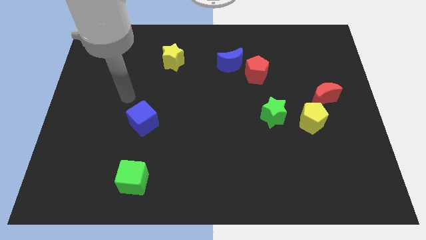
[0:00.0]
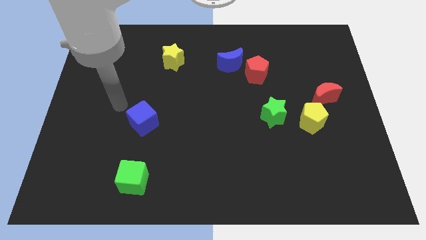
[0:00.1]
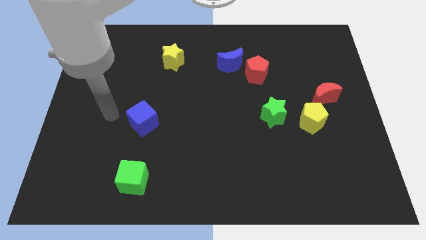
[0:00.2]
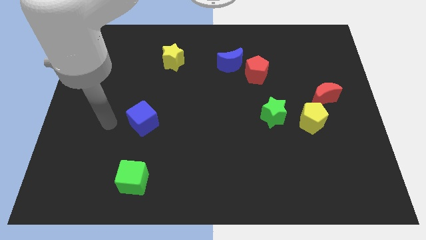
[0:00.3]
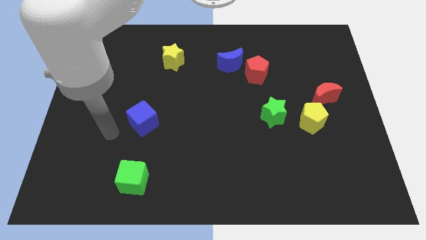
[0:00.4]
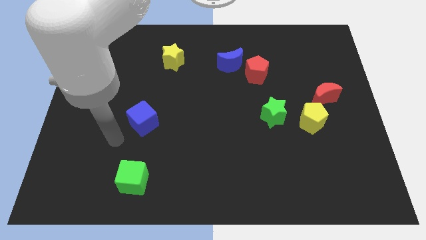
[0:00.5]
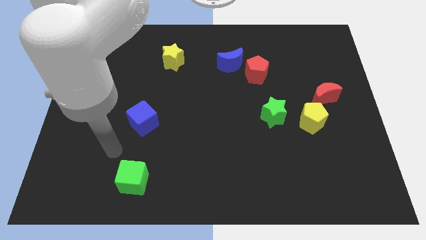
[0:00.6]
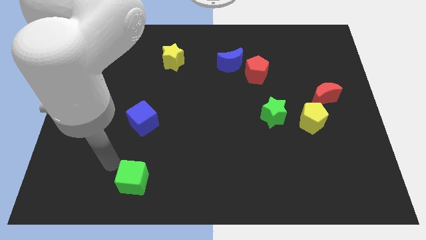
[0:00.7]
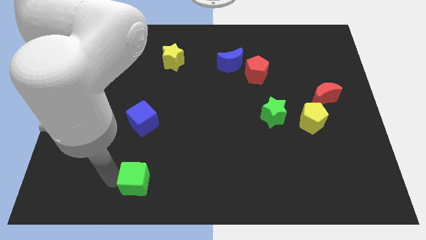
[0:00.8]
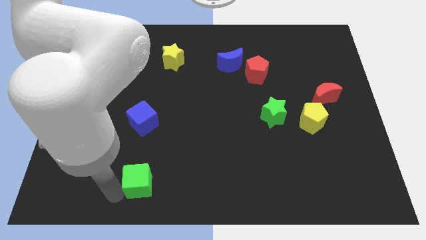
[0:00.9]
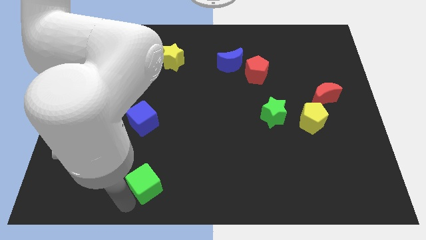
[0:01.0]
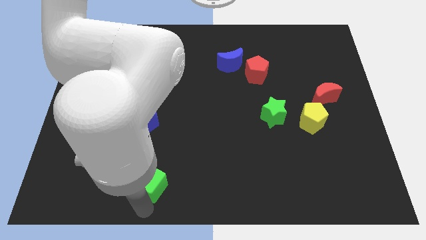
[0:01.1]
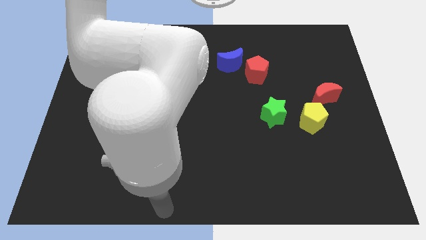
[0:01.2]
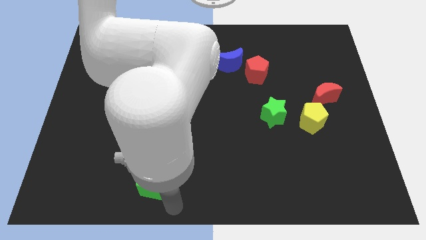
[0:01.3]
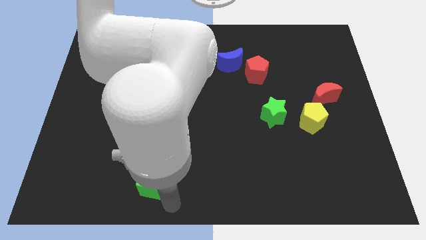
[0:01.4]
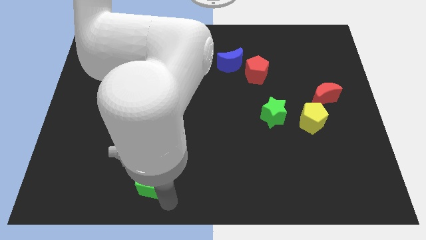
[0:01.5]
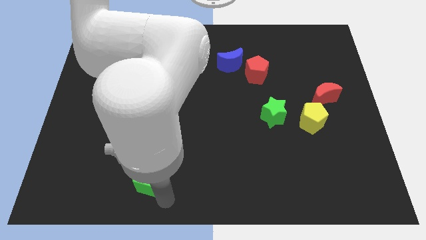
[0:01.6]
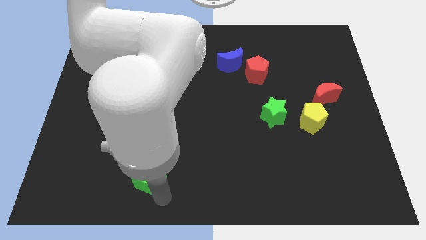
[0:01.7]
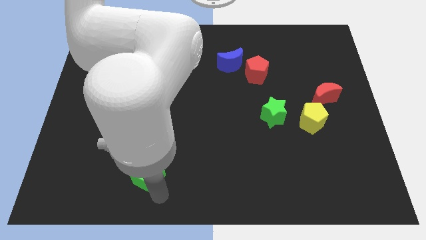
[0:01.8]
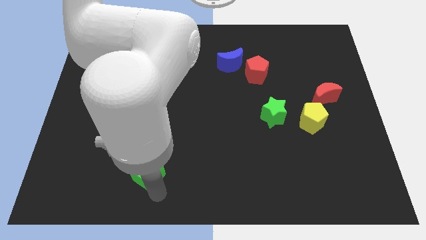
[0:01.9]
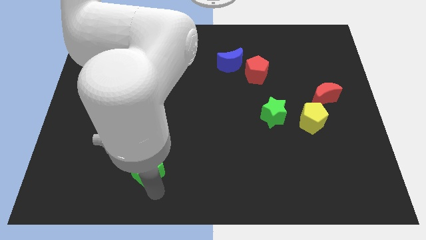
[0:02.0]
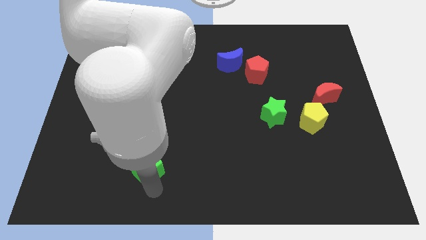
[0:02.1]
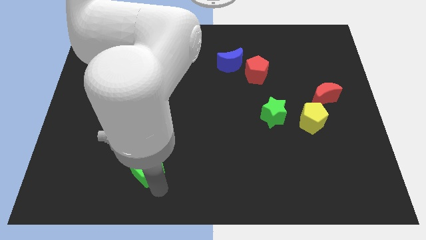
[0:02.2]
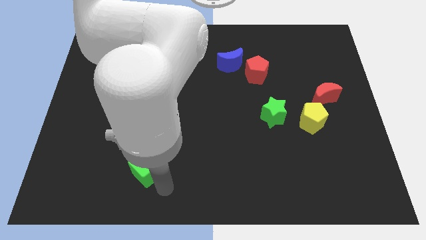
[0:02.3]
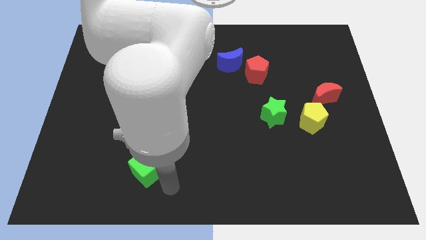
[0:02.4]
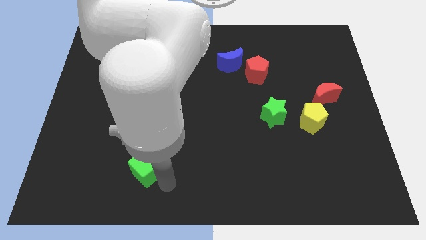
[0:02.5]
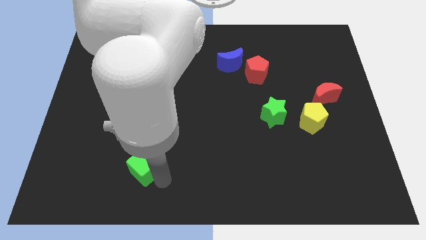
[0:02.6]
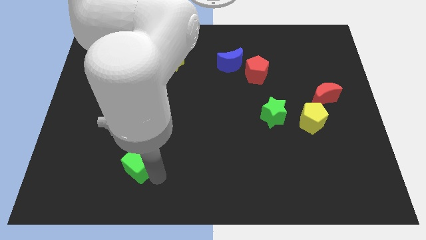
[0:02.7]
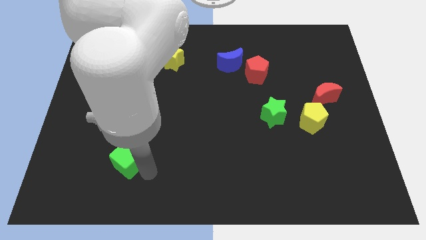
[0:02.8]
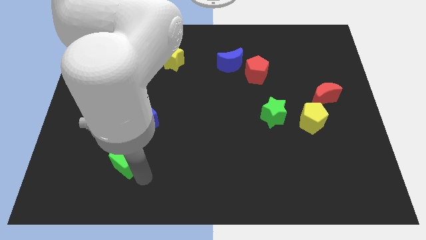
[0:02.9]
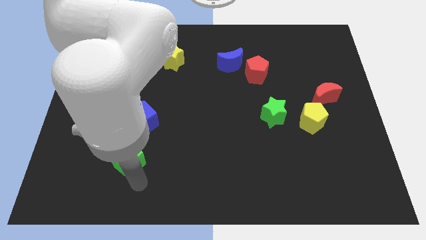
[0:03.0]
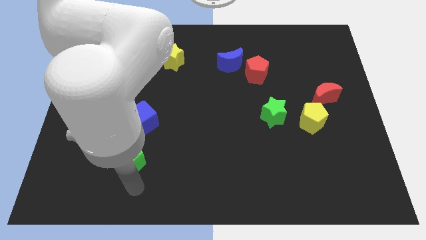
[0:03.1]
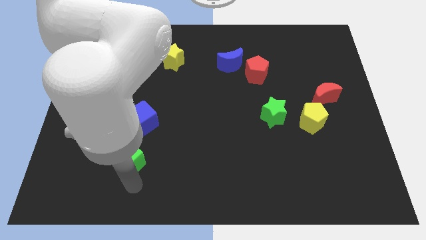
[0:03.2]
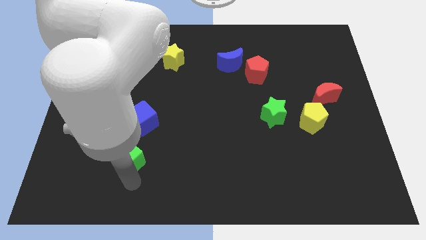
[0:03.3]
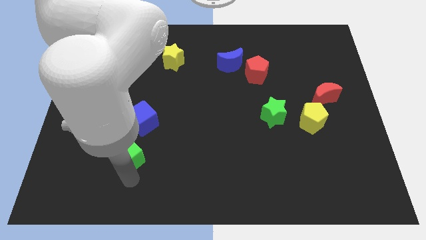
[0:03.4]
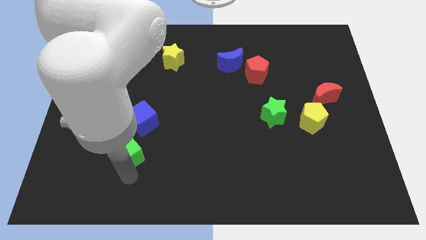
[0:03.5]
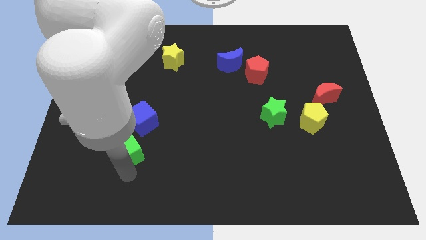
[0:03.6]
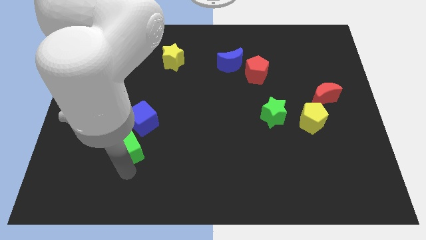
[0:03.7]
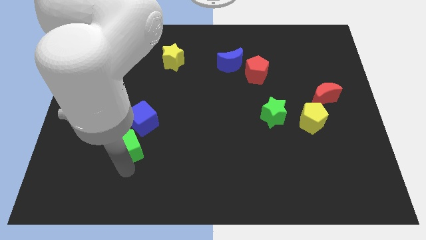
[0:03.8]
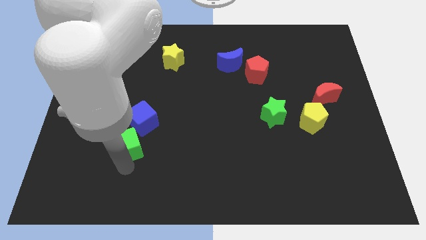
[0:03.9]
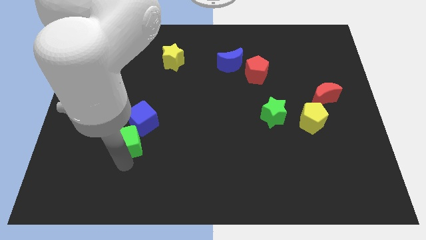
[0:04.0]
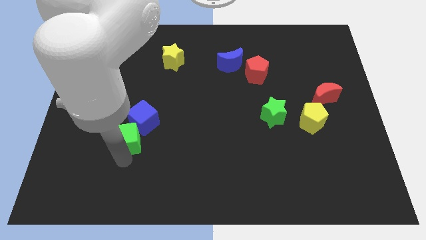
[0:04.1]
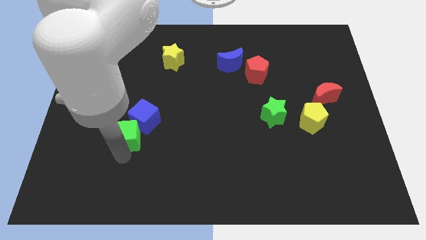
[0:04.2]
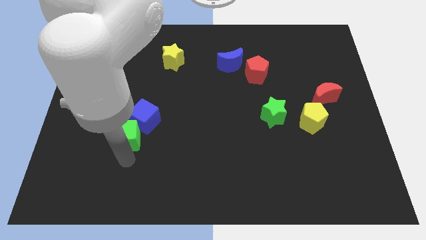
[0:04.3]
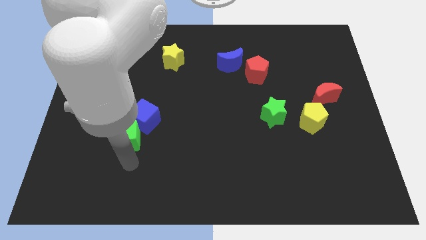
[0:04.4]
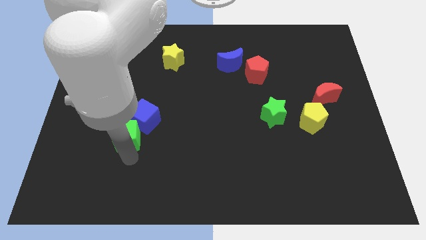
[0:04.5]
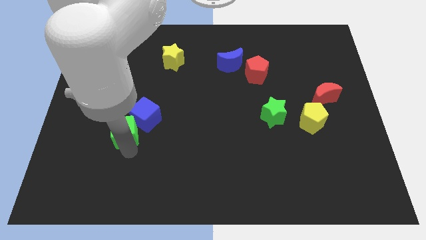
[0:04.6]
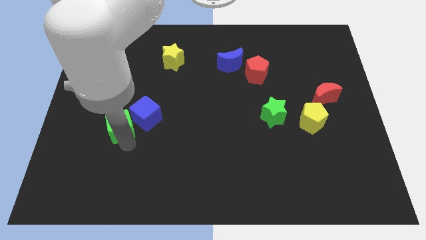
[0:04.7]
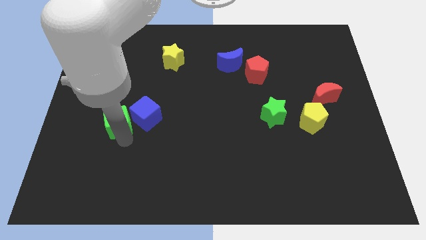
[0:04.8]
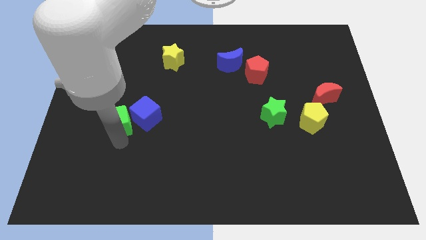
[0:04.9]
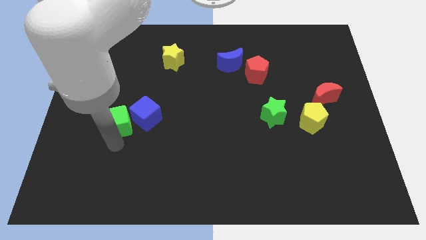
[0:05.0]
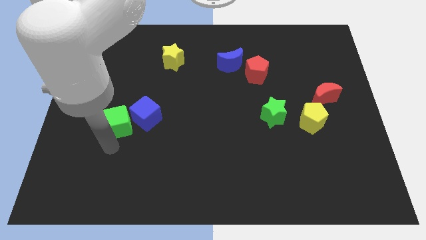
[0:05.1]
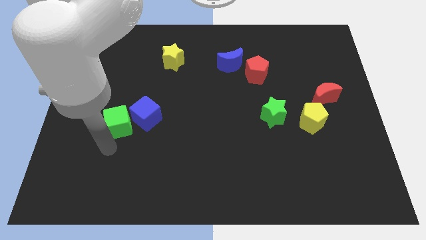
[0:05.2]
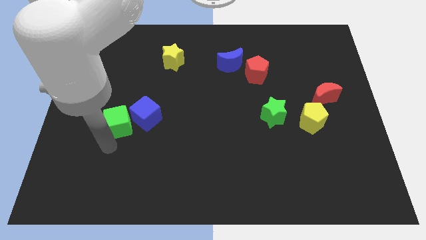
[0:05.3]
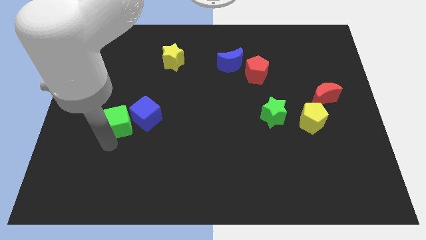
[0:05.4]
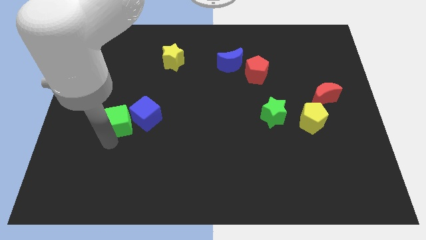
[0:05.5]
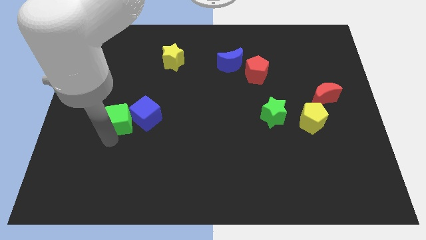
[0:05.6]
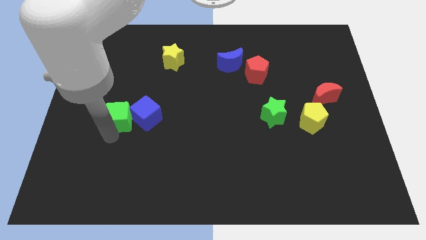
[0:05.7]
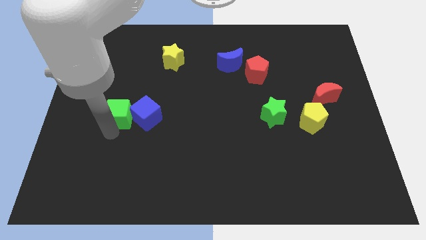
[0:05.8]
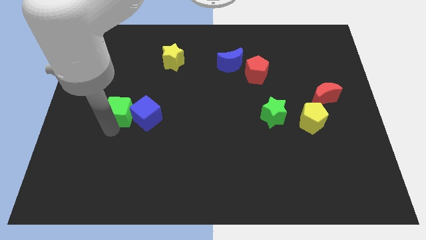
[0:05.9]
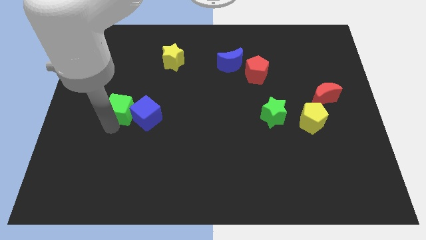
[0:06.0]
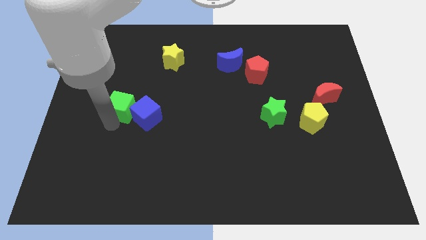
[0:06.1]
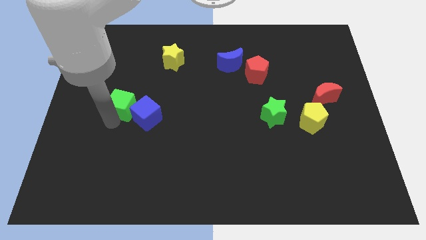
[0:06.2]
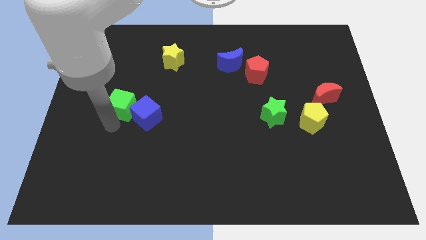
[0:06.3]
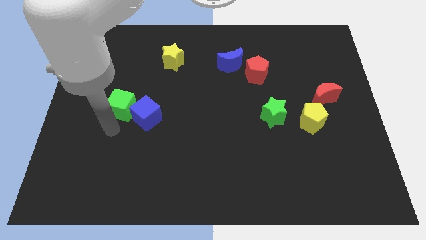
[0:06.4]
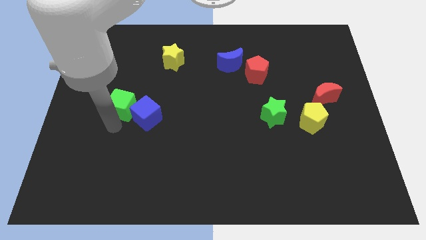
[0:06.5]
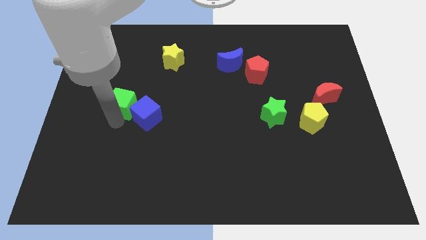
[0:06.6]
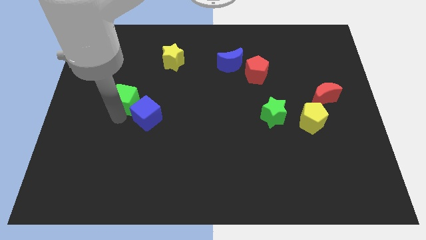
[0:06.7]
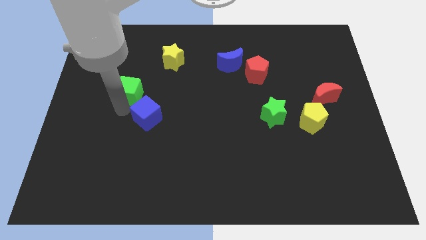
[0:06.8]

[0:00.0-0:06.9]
move the green cube upwards

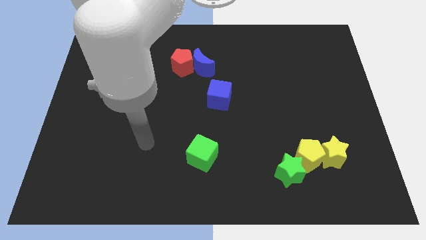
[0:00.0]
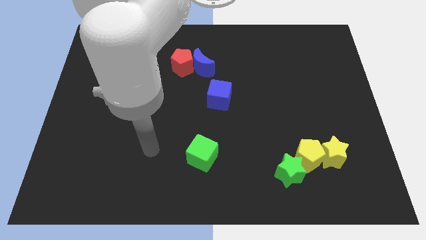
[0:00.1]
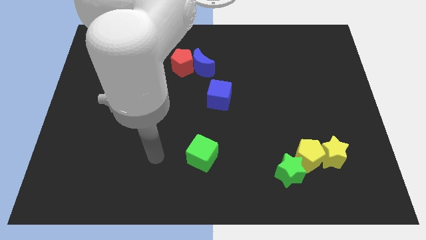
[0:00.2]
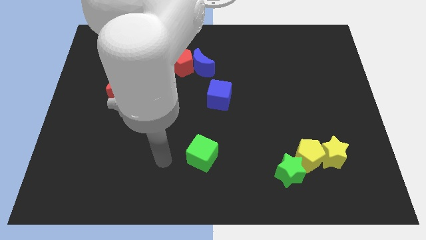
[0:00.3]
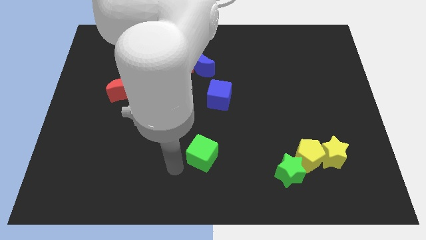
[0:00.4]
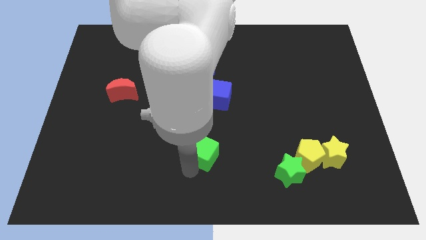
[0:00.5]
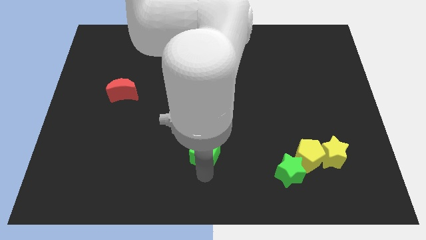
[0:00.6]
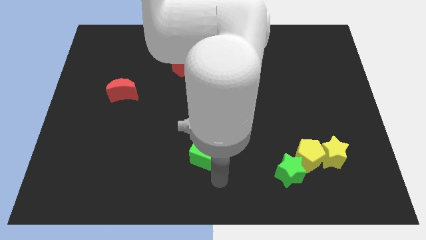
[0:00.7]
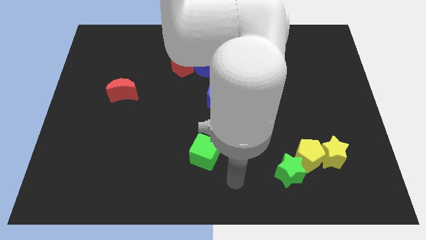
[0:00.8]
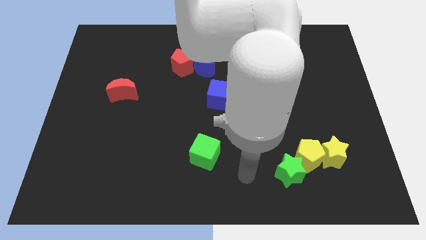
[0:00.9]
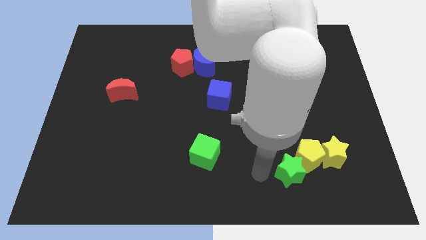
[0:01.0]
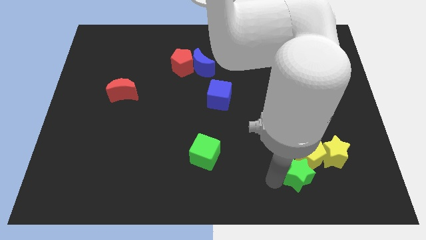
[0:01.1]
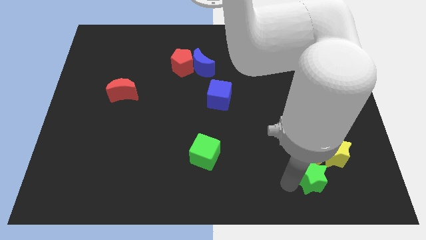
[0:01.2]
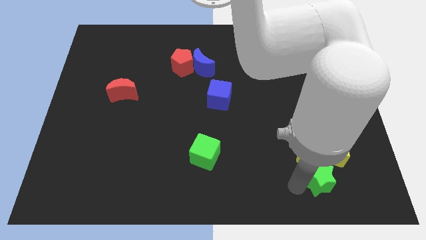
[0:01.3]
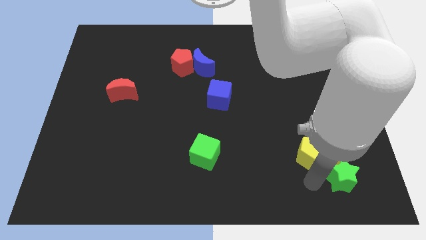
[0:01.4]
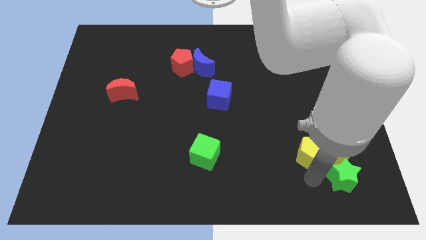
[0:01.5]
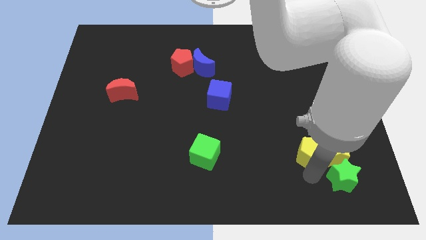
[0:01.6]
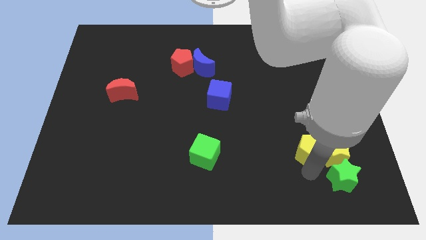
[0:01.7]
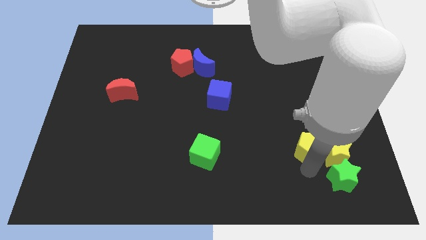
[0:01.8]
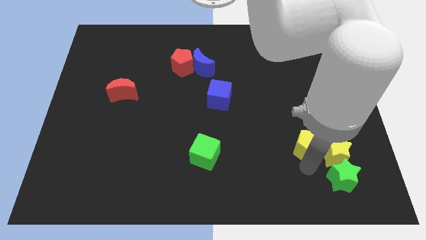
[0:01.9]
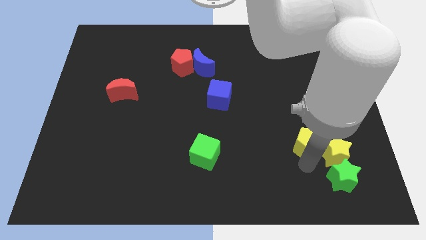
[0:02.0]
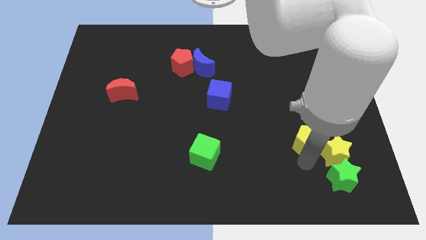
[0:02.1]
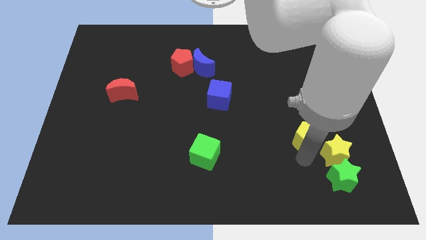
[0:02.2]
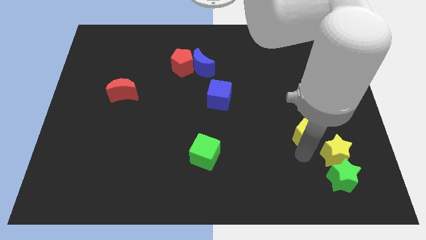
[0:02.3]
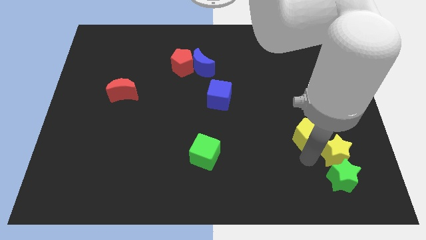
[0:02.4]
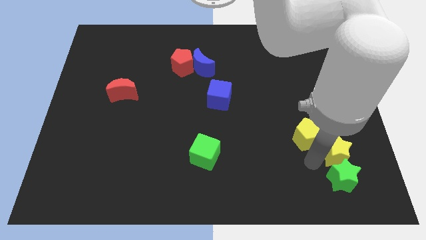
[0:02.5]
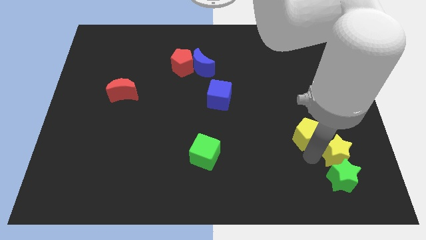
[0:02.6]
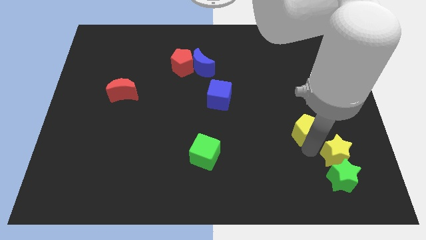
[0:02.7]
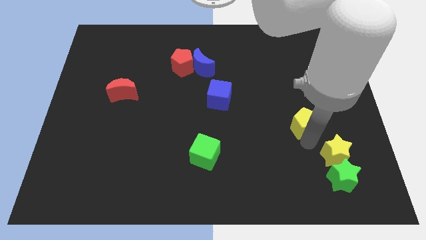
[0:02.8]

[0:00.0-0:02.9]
move the yellow pentagon slightly upwards
